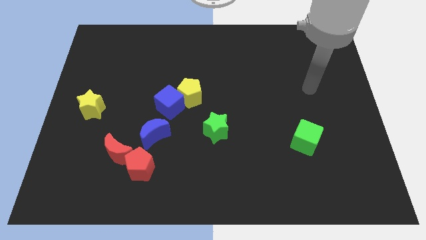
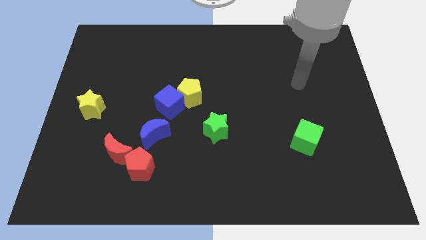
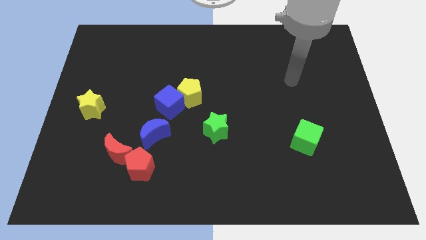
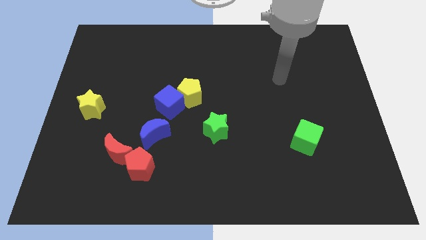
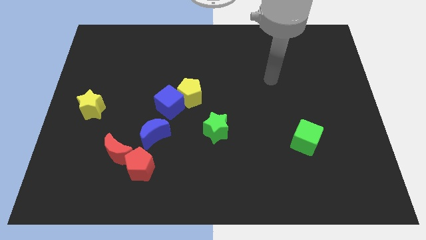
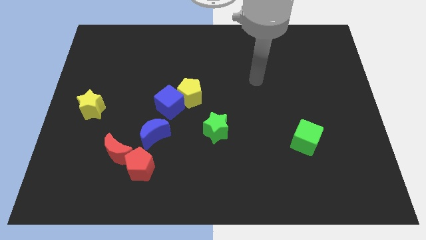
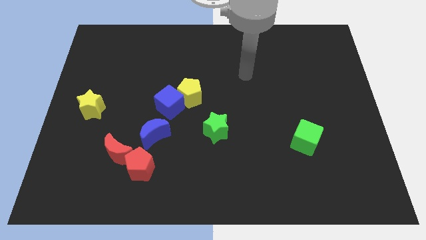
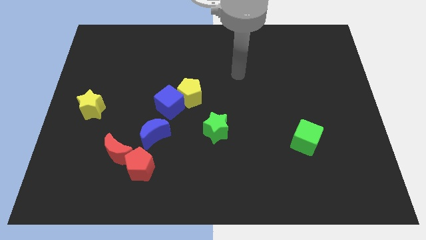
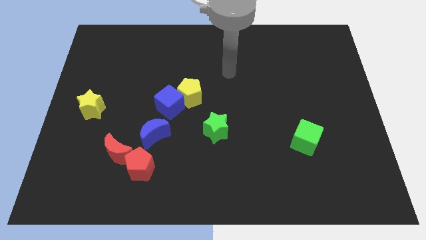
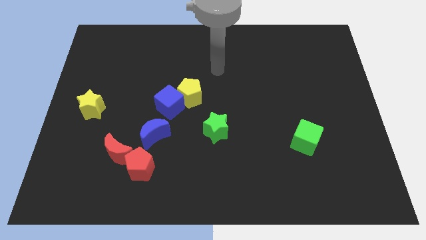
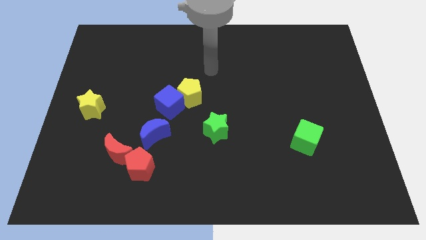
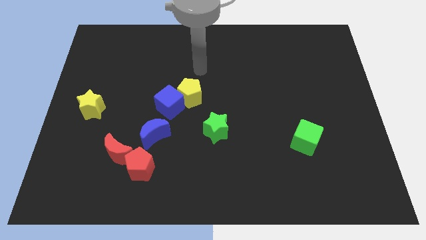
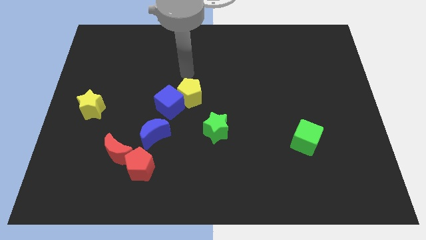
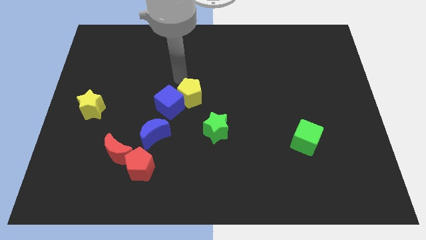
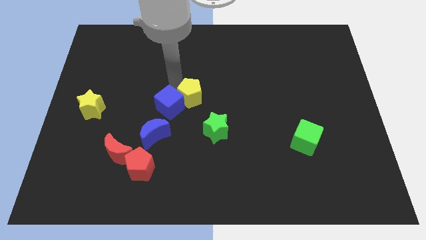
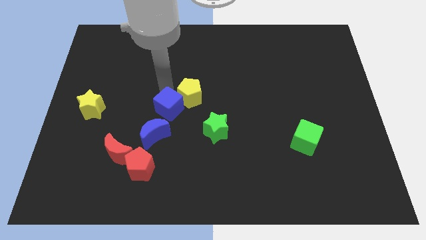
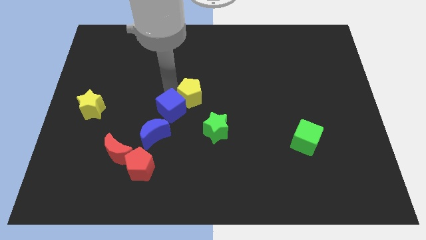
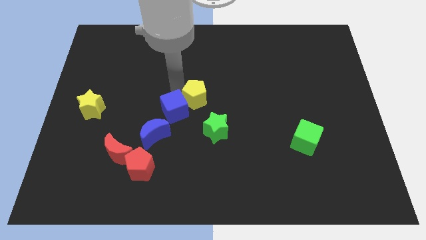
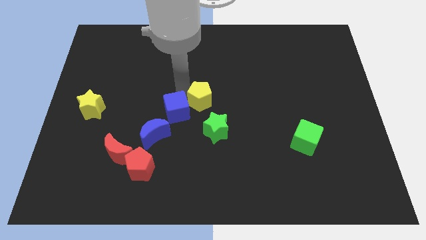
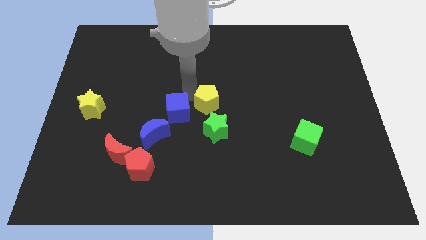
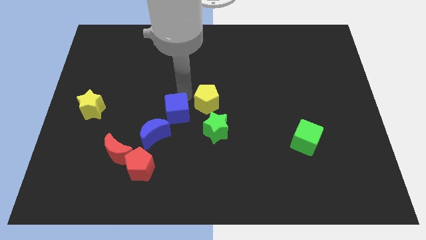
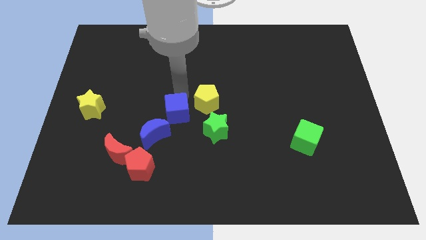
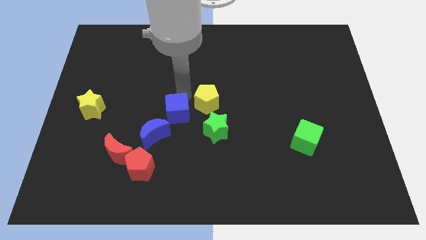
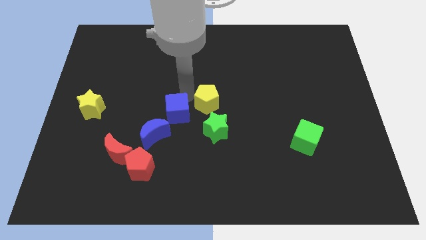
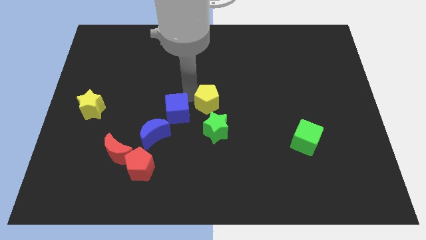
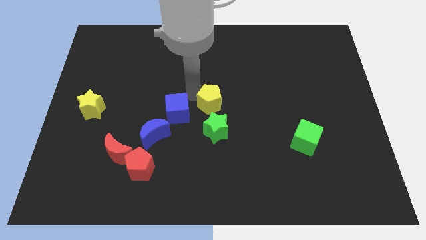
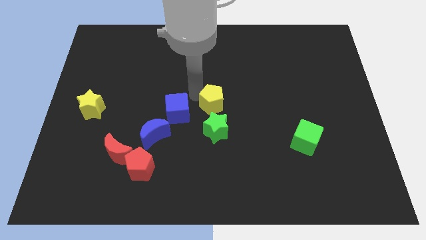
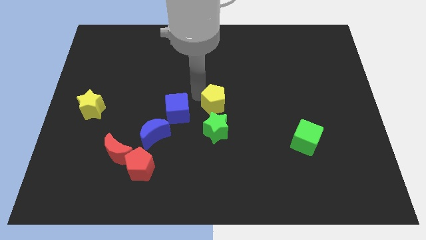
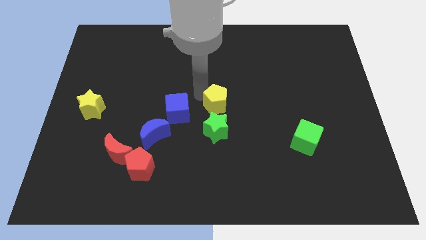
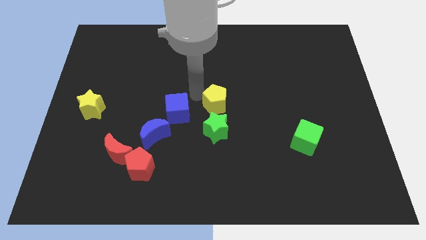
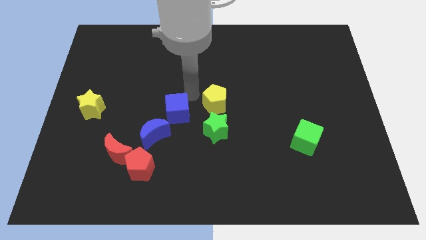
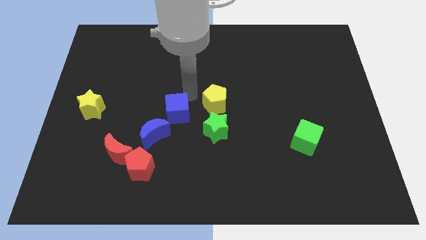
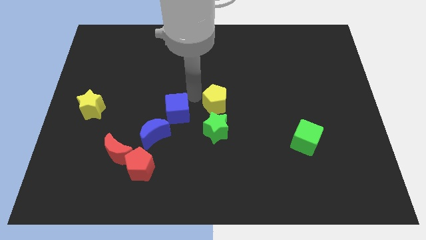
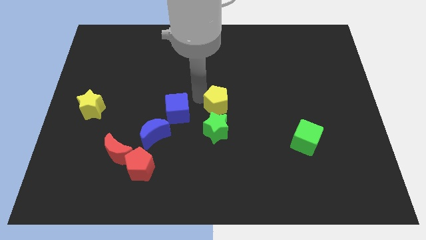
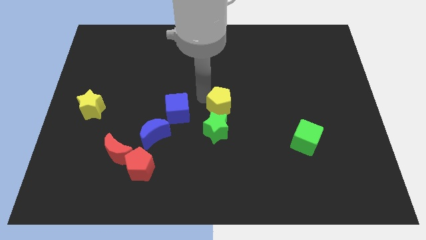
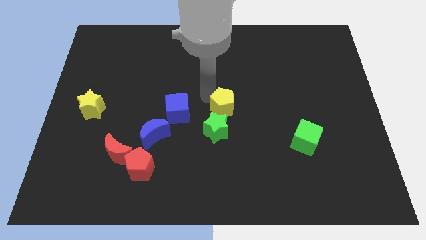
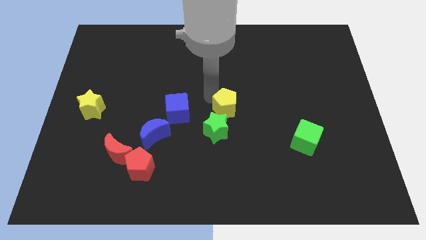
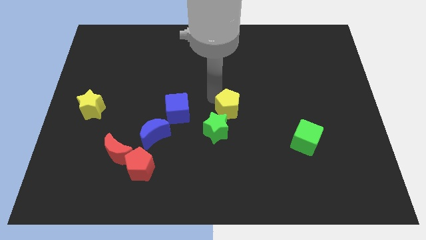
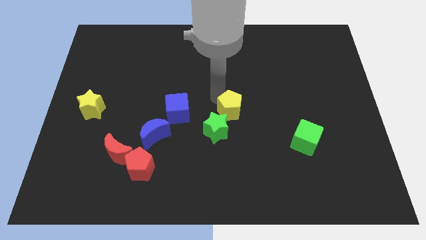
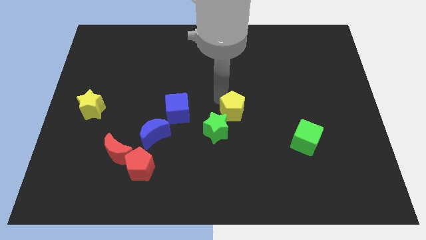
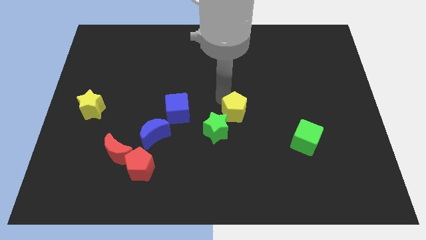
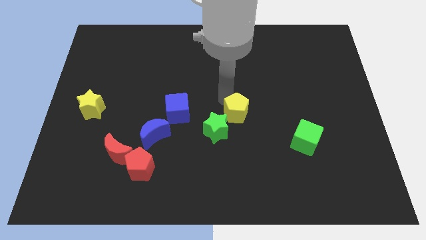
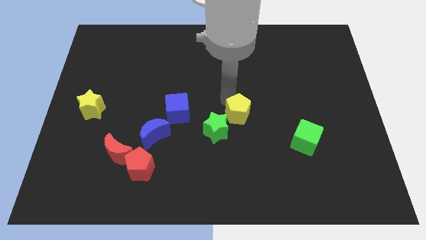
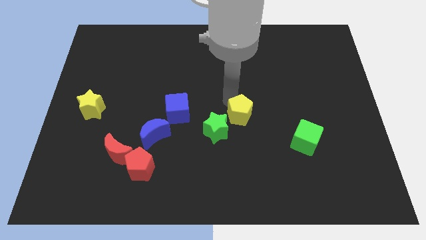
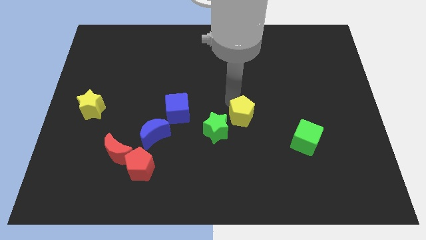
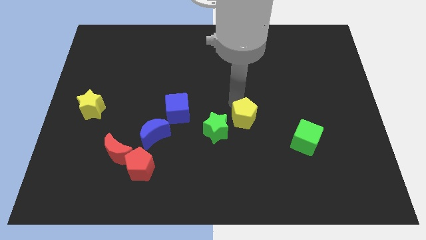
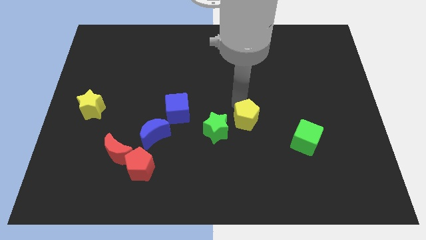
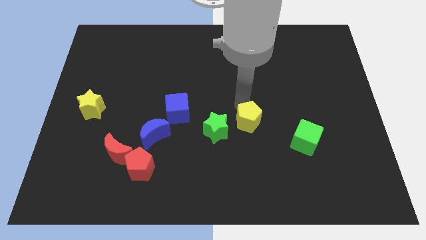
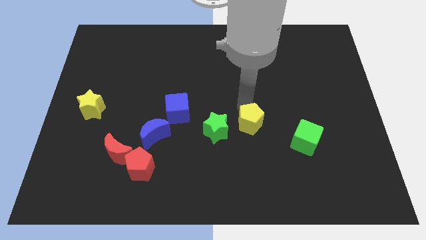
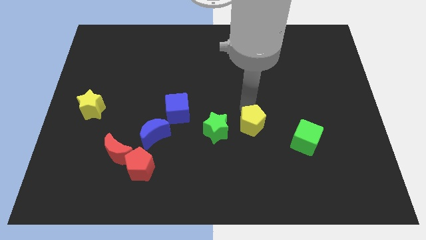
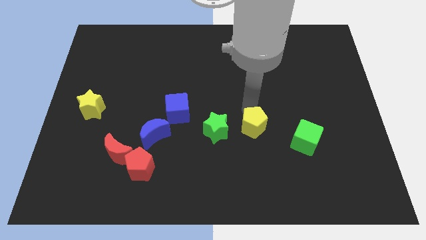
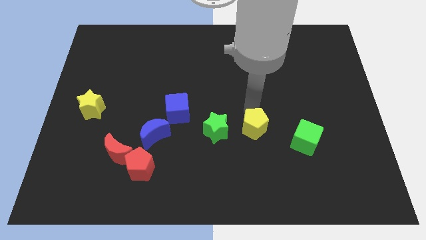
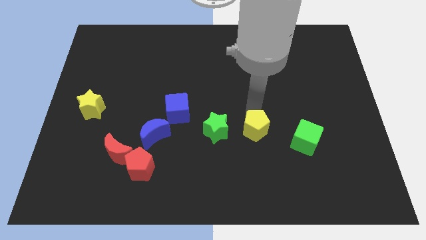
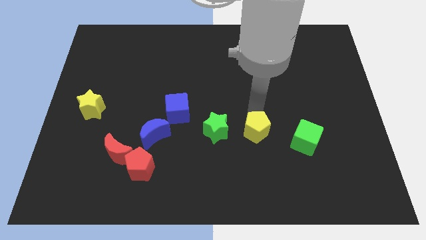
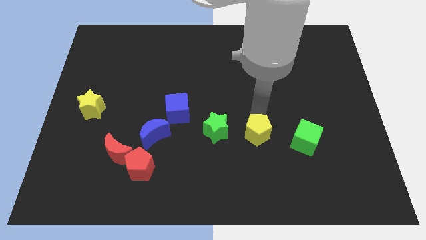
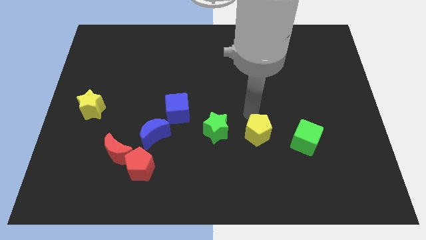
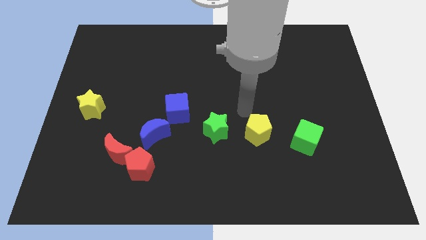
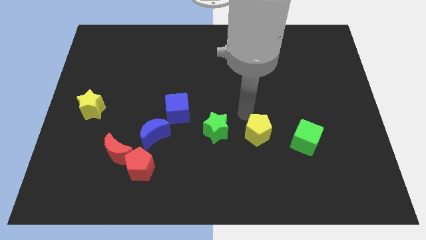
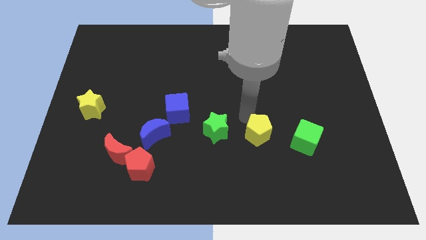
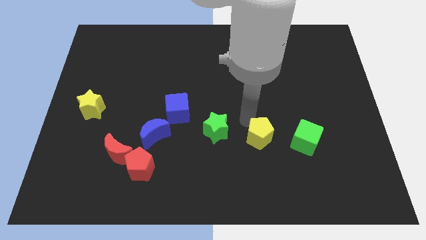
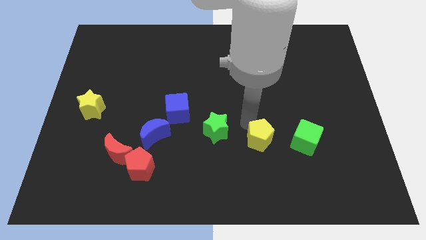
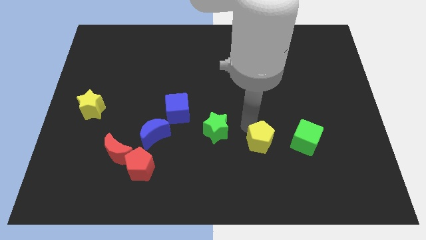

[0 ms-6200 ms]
push the yellow pentagon downwards and then to the right

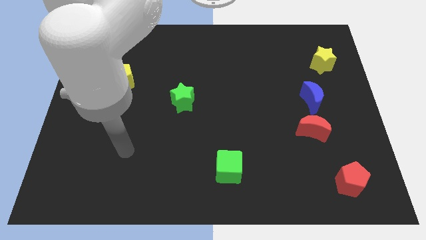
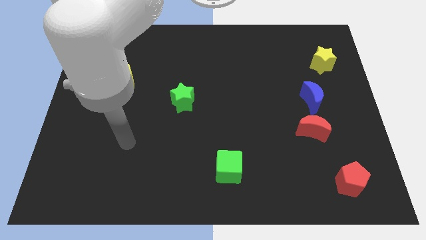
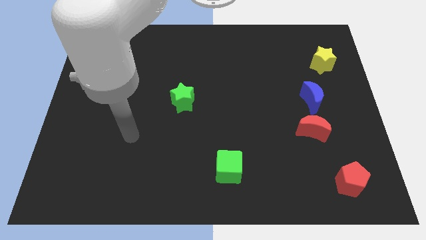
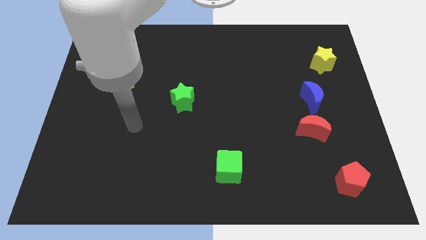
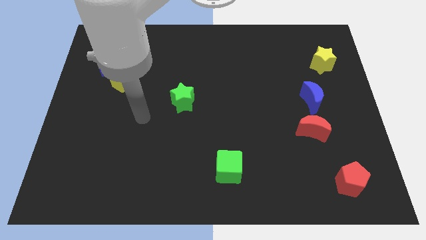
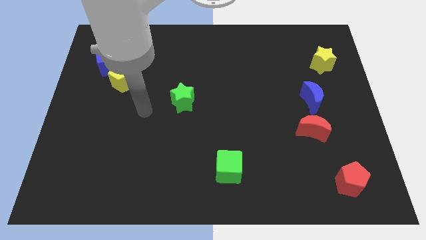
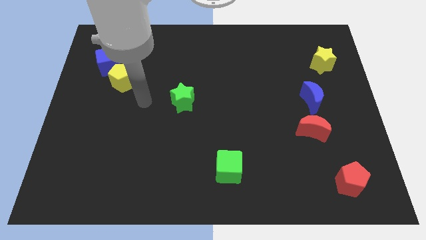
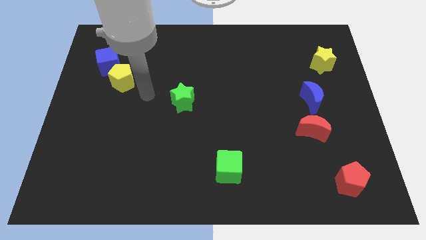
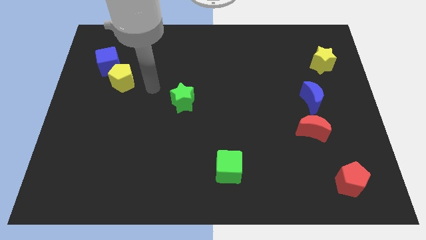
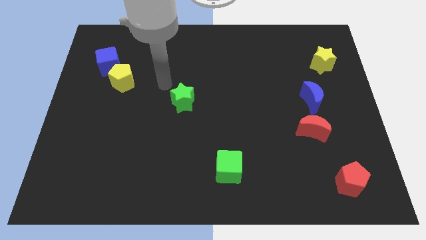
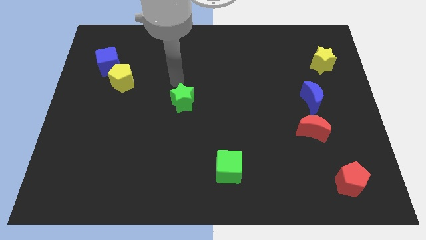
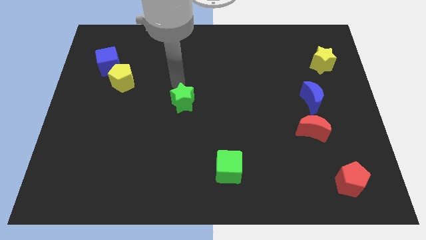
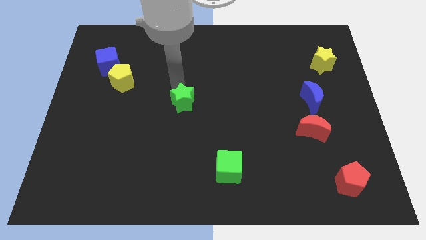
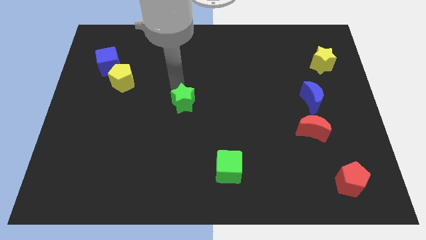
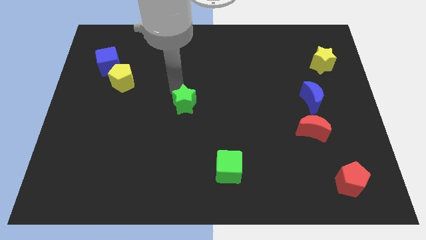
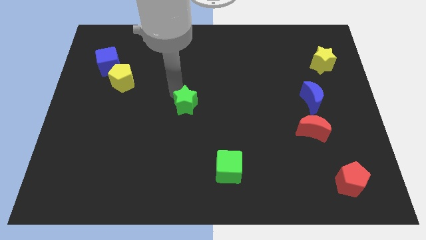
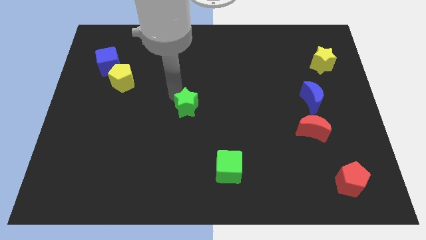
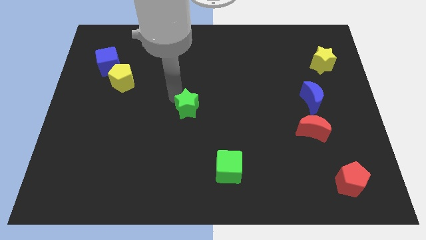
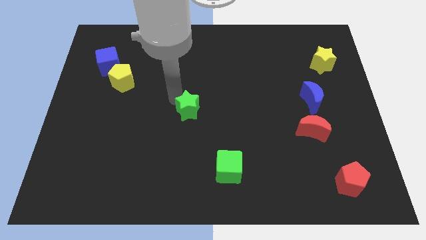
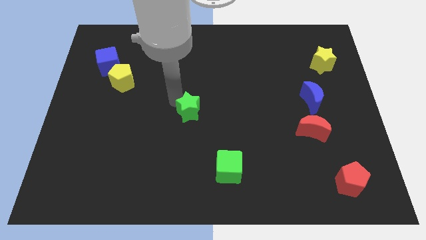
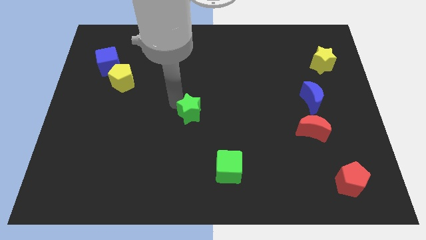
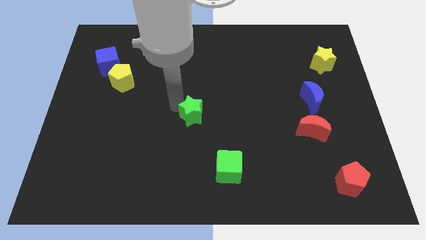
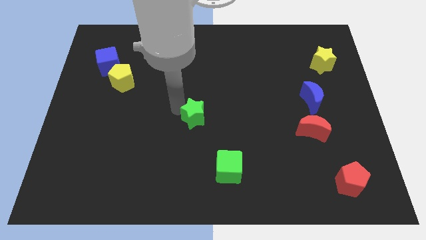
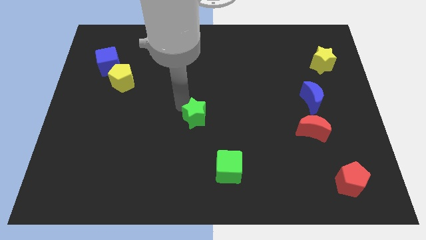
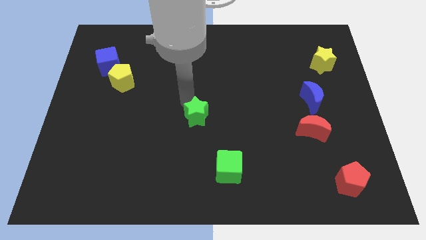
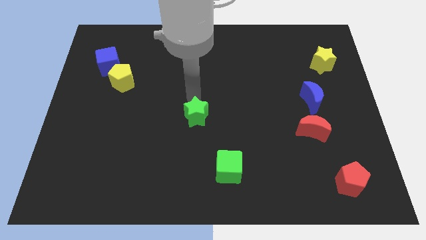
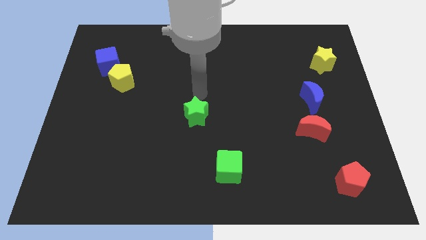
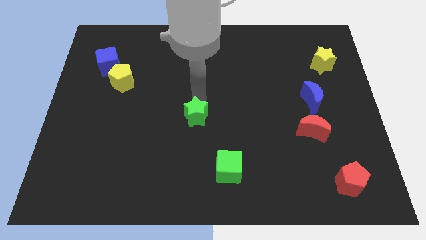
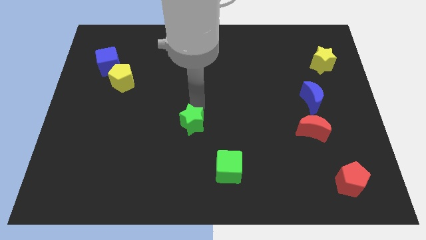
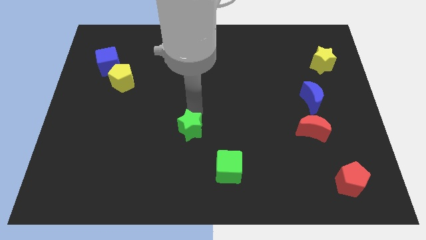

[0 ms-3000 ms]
slightly move the green star downwards
